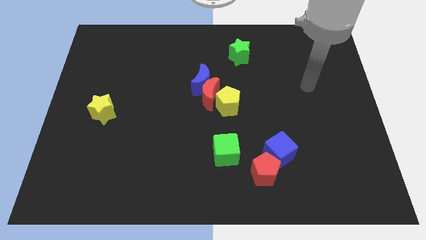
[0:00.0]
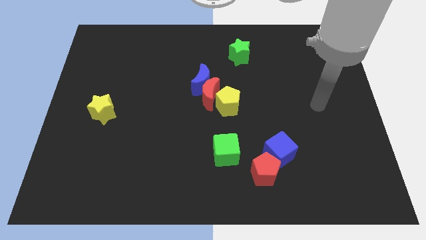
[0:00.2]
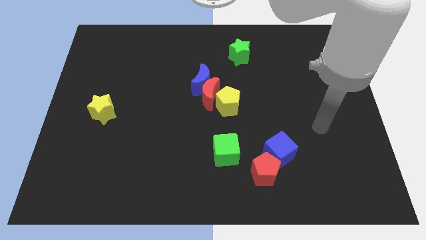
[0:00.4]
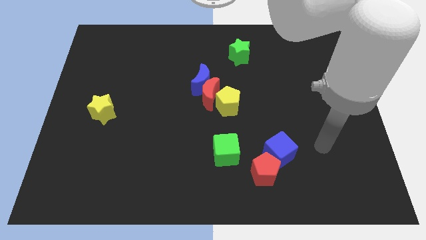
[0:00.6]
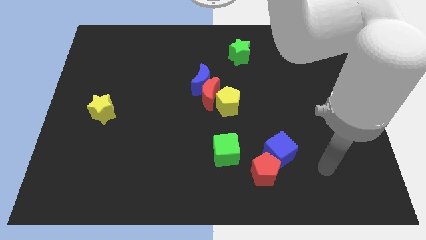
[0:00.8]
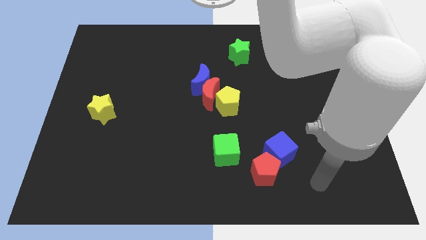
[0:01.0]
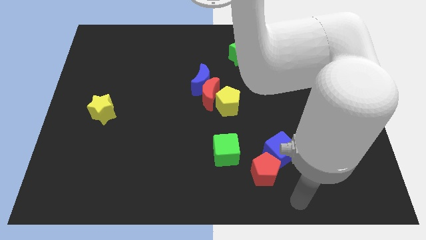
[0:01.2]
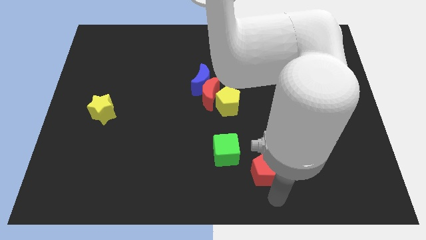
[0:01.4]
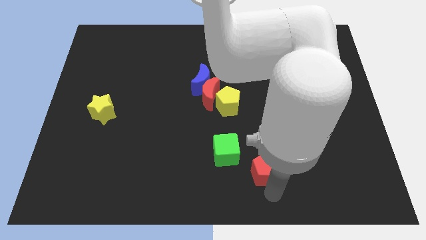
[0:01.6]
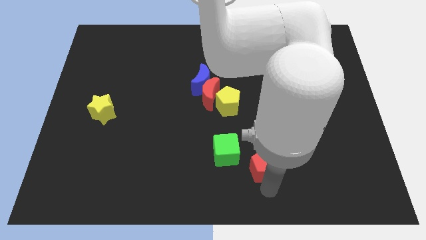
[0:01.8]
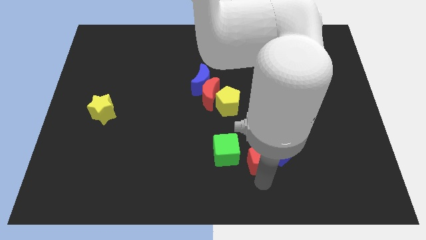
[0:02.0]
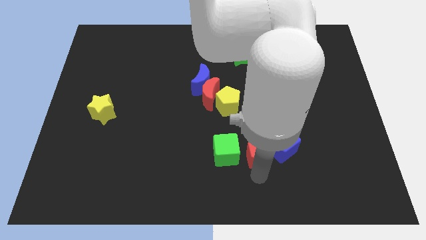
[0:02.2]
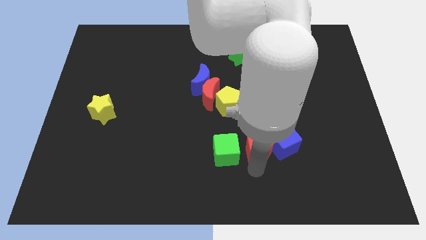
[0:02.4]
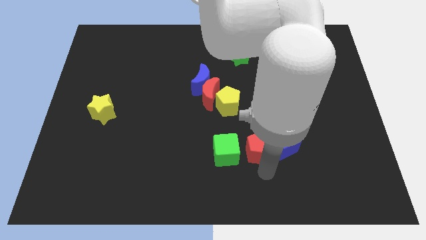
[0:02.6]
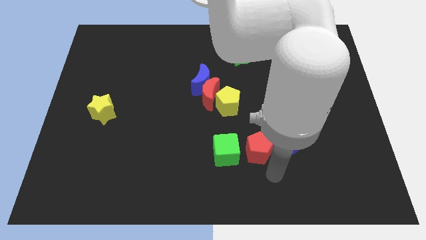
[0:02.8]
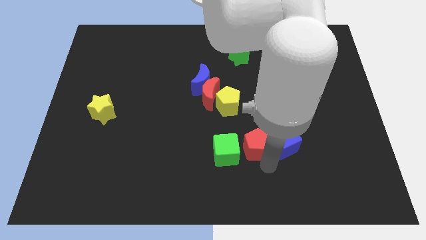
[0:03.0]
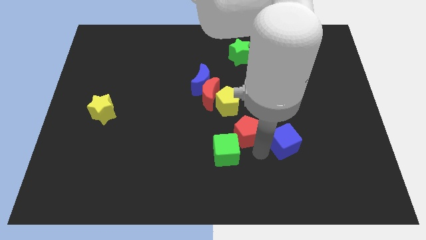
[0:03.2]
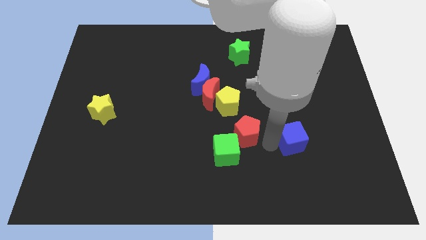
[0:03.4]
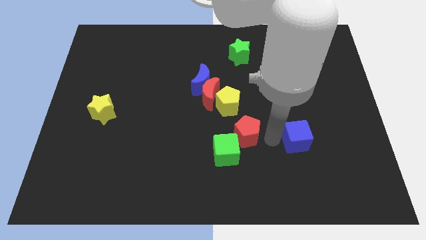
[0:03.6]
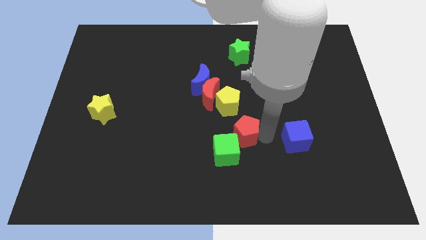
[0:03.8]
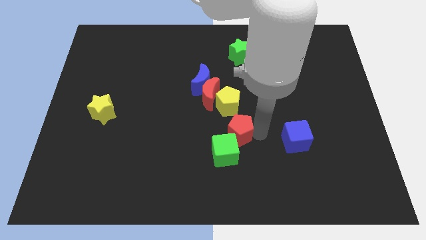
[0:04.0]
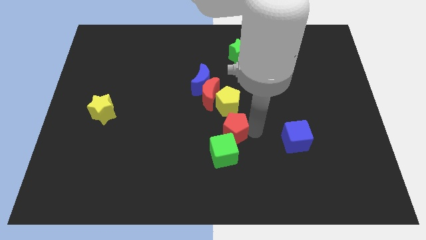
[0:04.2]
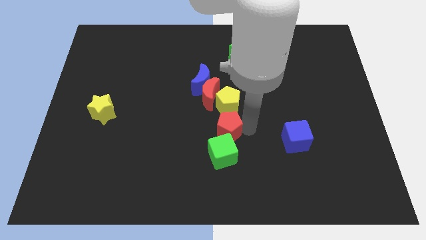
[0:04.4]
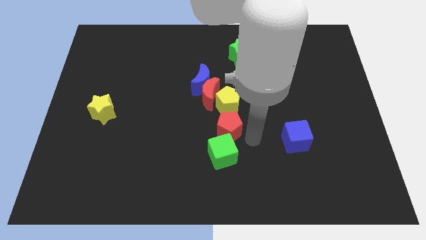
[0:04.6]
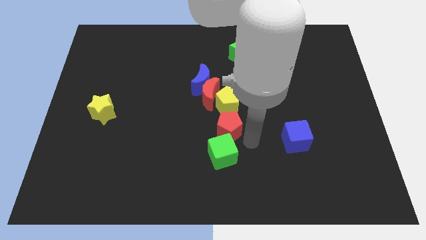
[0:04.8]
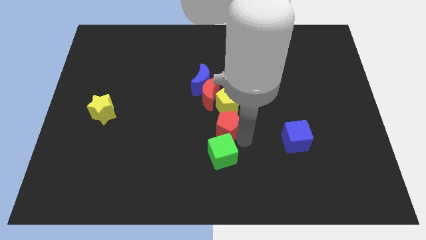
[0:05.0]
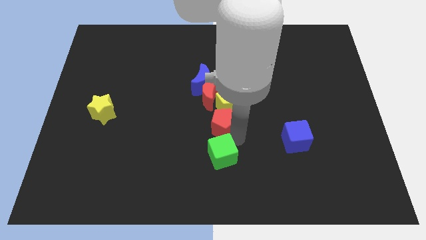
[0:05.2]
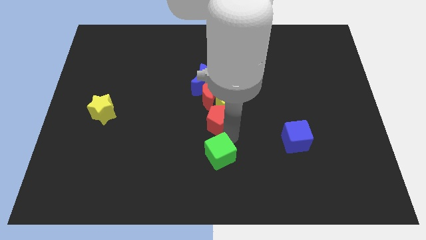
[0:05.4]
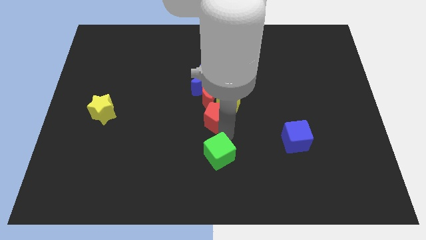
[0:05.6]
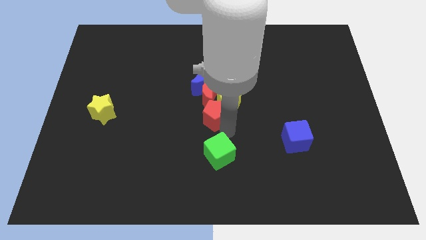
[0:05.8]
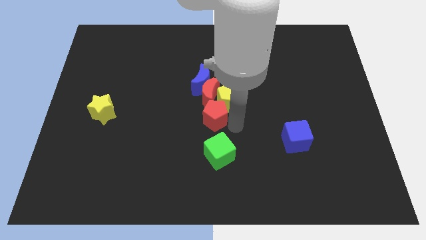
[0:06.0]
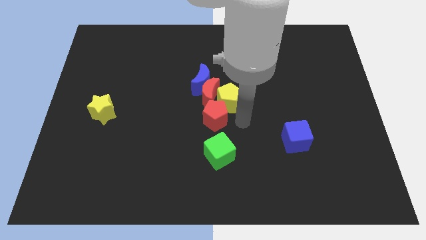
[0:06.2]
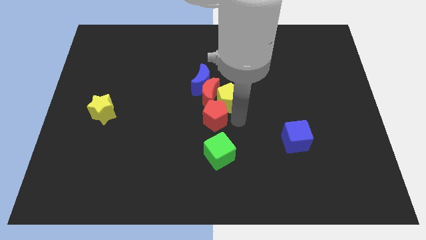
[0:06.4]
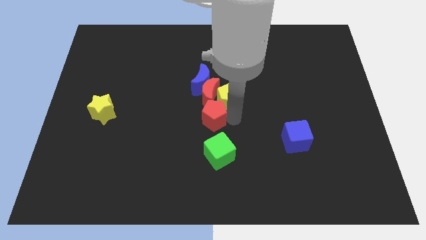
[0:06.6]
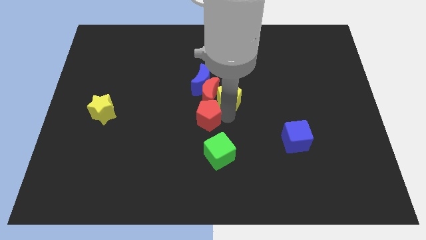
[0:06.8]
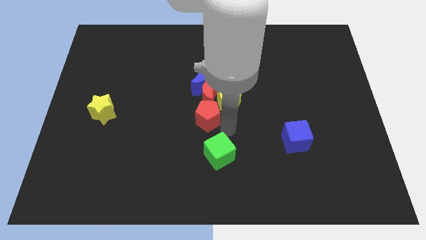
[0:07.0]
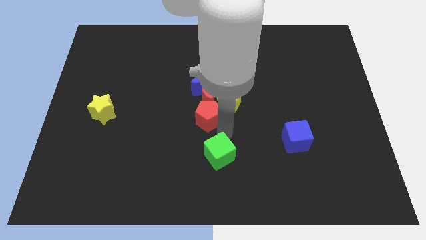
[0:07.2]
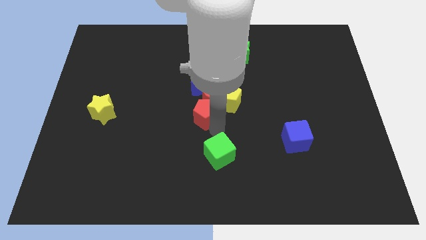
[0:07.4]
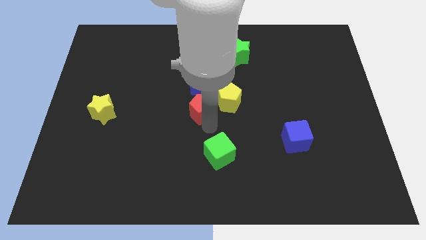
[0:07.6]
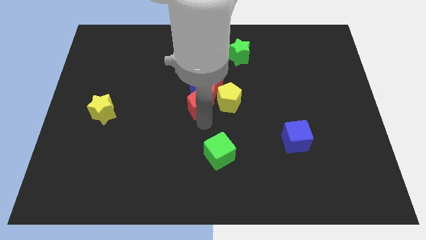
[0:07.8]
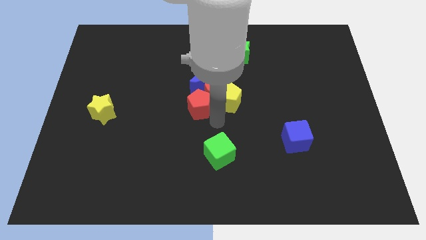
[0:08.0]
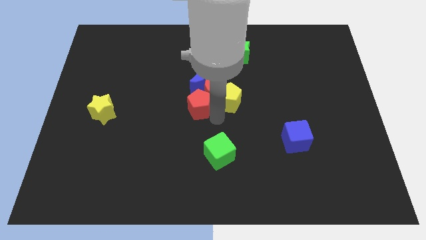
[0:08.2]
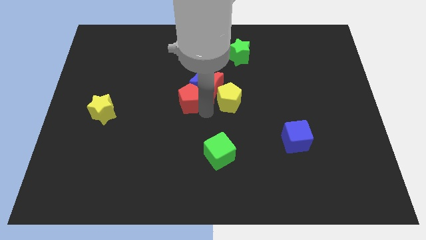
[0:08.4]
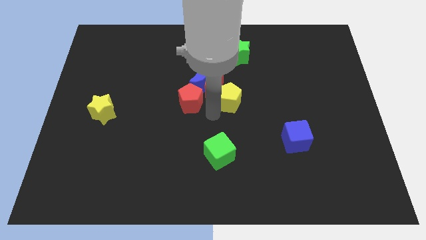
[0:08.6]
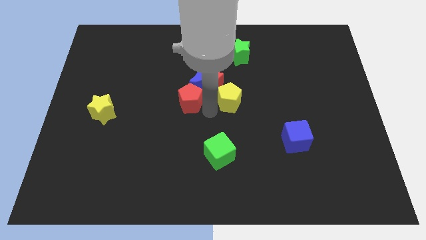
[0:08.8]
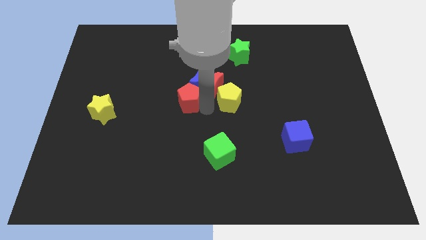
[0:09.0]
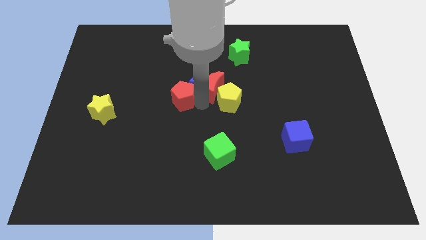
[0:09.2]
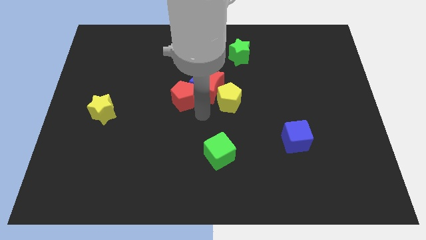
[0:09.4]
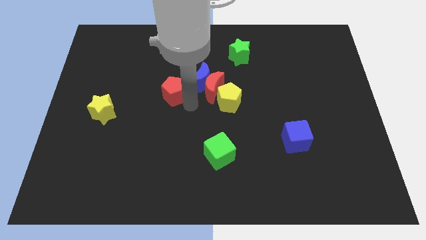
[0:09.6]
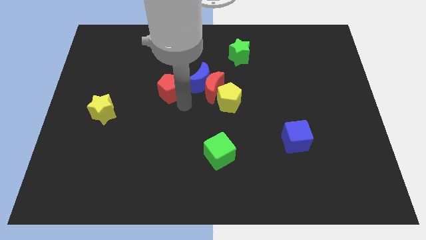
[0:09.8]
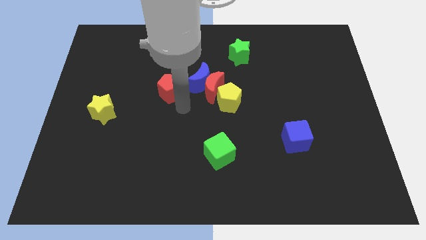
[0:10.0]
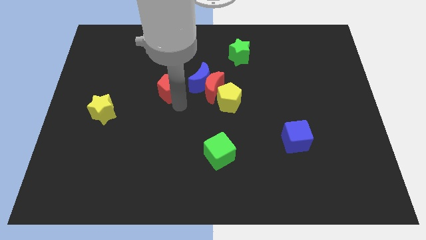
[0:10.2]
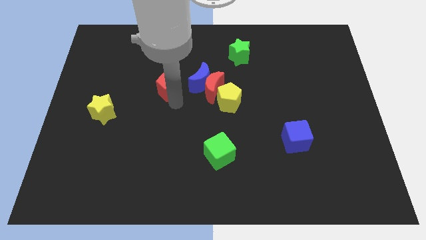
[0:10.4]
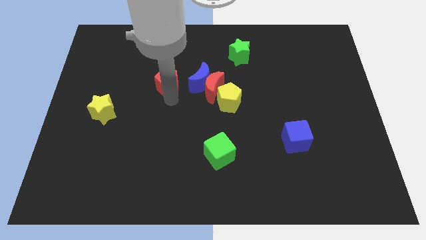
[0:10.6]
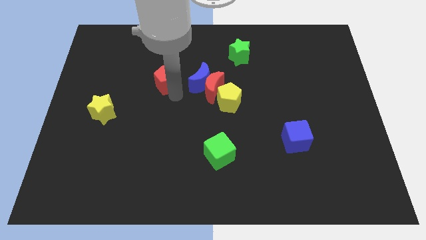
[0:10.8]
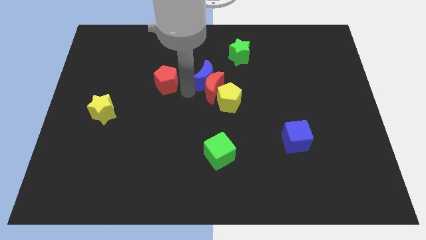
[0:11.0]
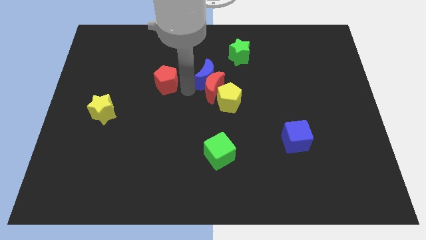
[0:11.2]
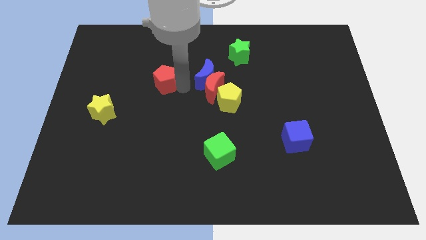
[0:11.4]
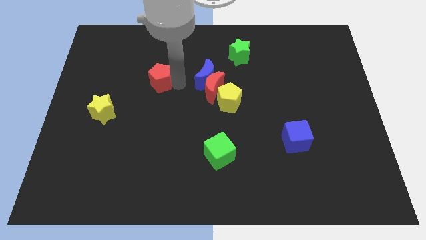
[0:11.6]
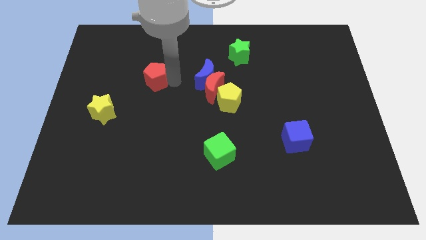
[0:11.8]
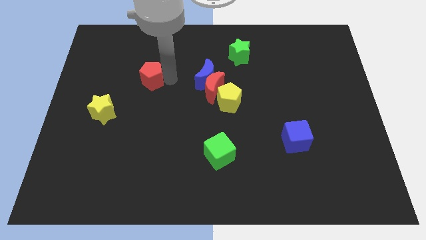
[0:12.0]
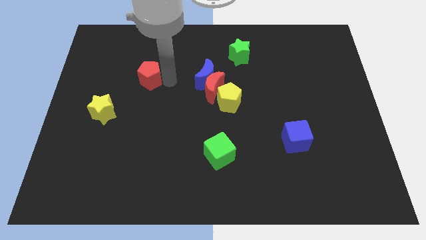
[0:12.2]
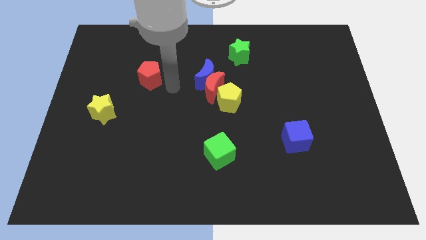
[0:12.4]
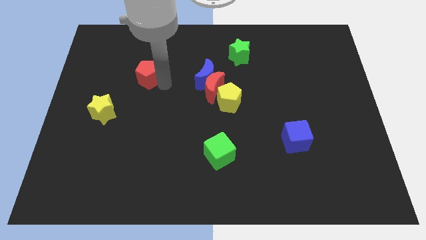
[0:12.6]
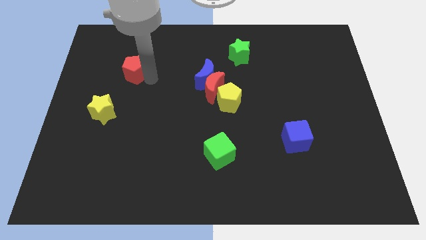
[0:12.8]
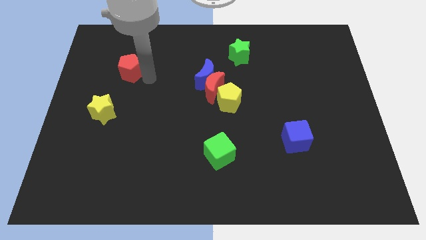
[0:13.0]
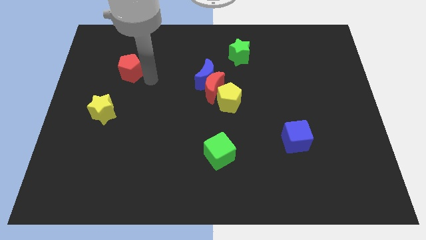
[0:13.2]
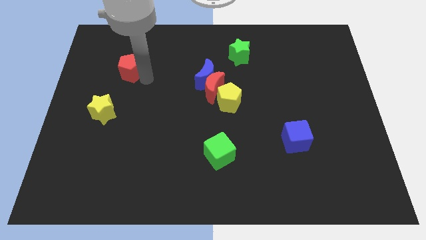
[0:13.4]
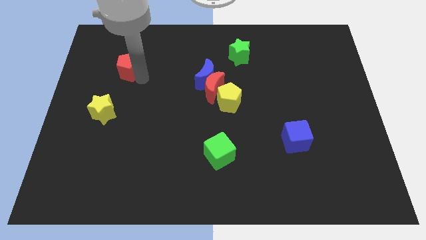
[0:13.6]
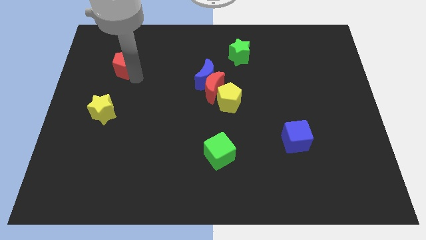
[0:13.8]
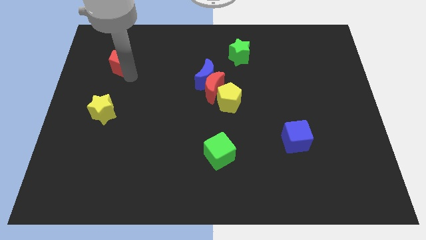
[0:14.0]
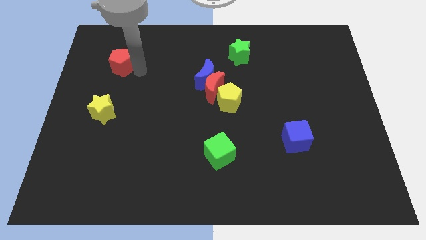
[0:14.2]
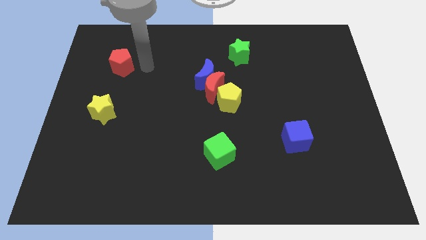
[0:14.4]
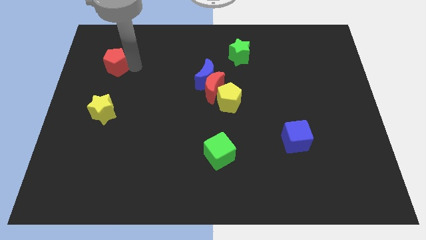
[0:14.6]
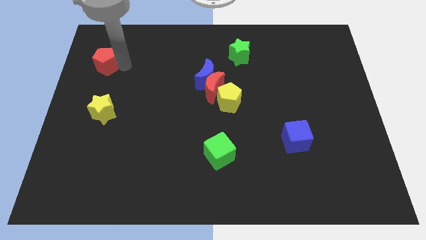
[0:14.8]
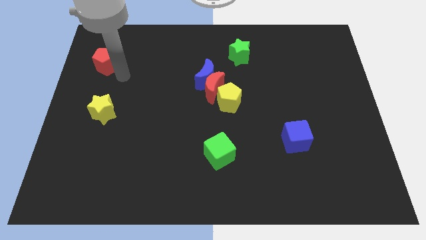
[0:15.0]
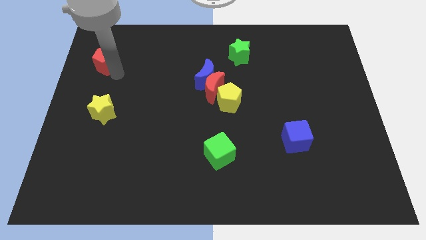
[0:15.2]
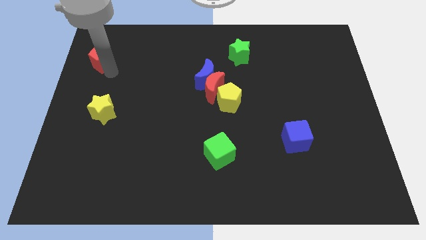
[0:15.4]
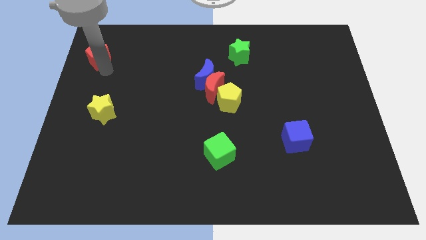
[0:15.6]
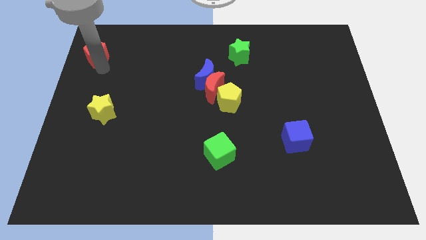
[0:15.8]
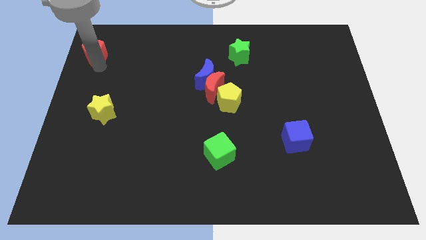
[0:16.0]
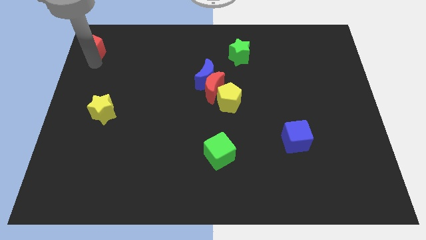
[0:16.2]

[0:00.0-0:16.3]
slide the red pentagon to the upper left corner
